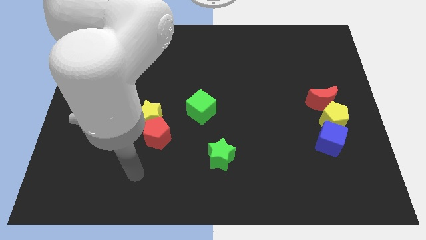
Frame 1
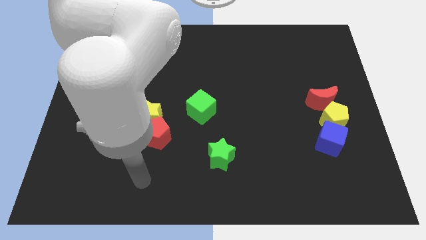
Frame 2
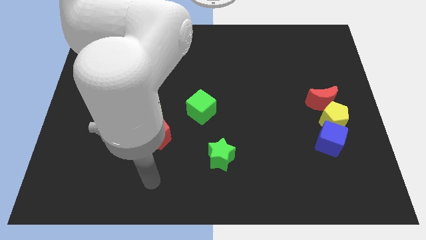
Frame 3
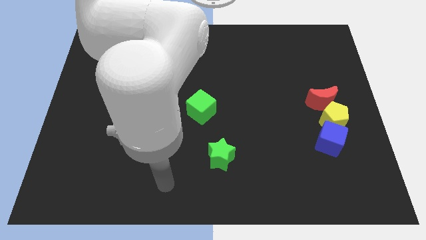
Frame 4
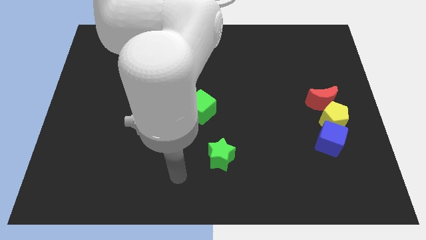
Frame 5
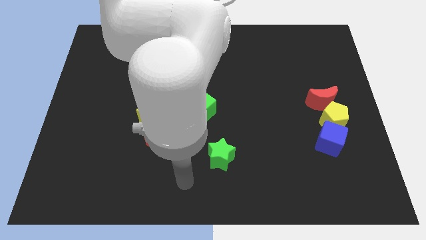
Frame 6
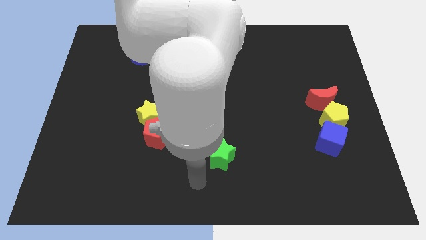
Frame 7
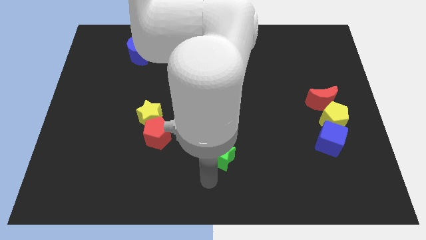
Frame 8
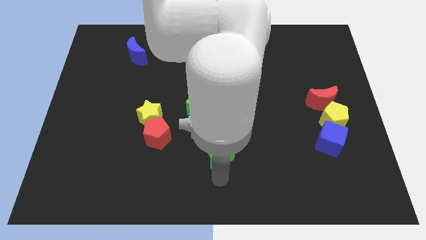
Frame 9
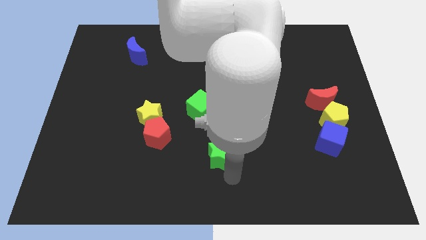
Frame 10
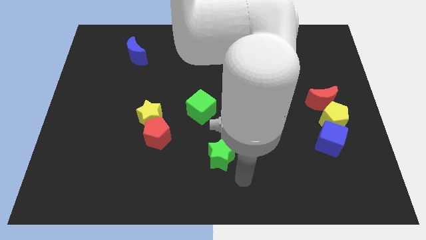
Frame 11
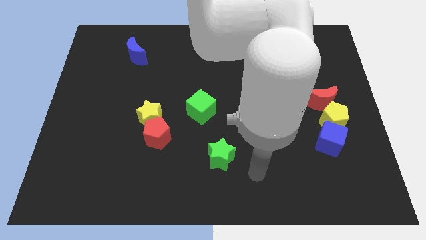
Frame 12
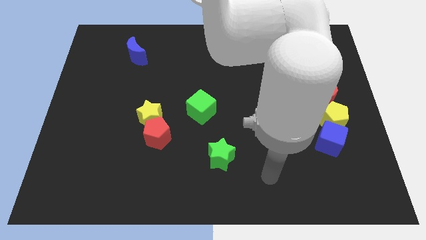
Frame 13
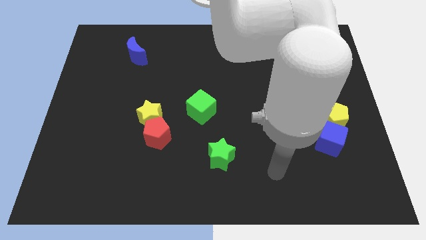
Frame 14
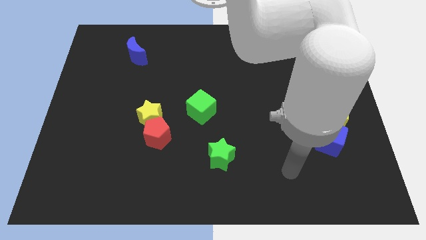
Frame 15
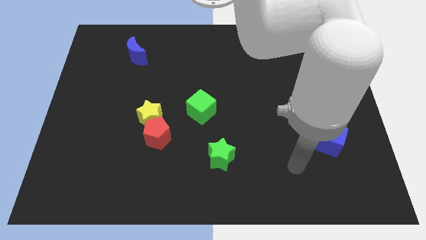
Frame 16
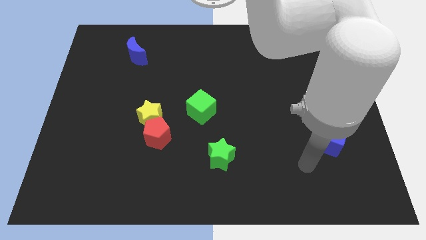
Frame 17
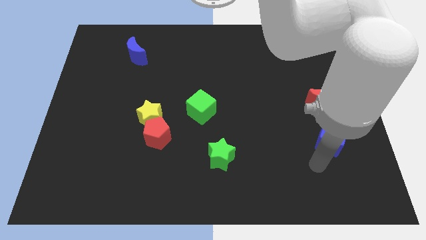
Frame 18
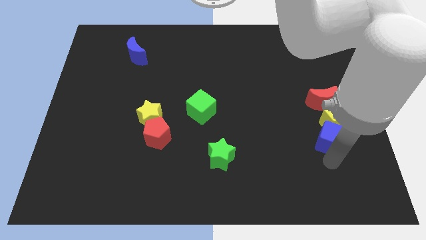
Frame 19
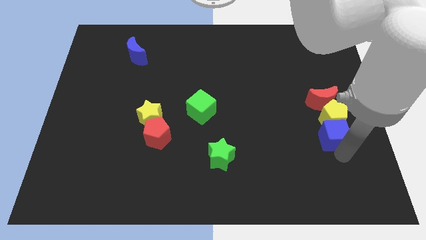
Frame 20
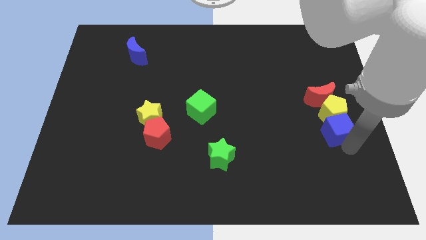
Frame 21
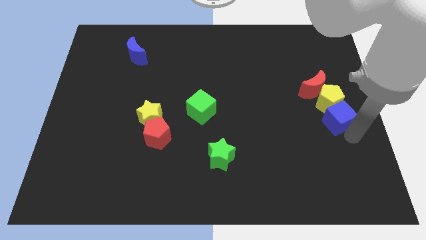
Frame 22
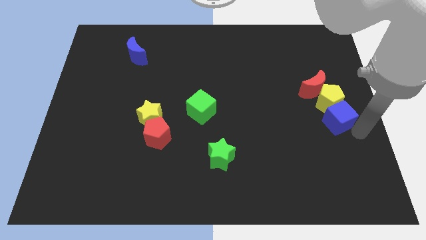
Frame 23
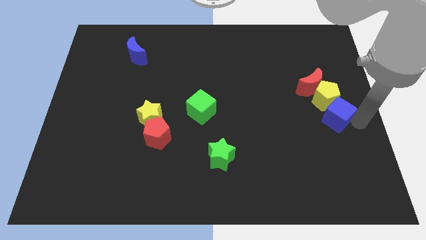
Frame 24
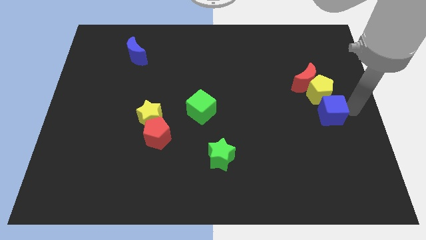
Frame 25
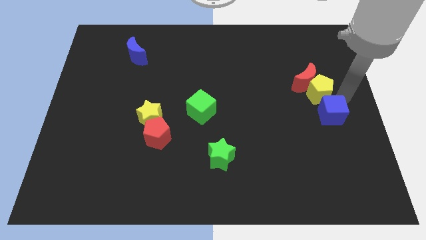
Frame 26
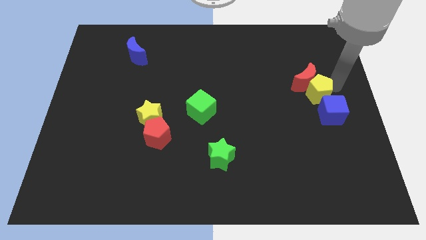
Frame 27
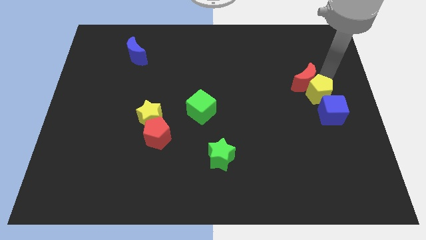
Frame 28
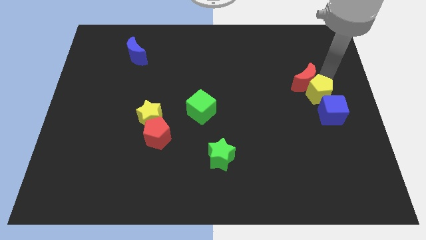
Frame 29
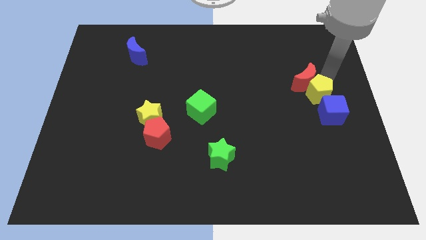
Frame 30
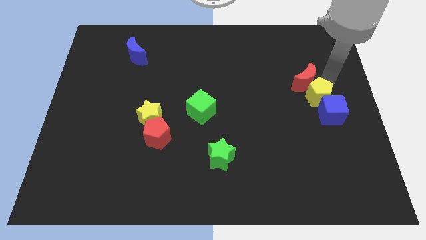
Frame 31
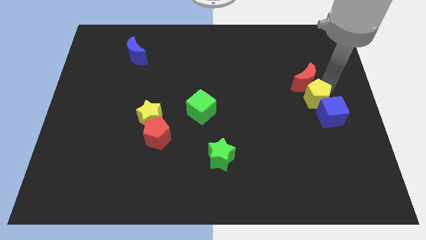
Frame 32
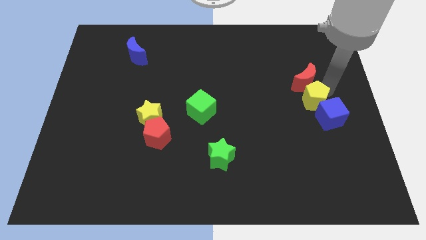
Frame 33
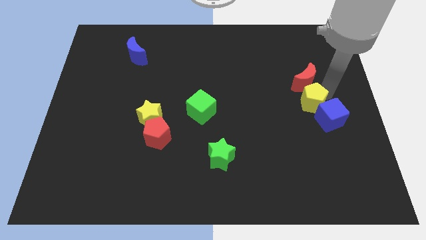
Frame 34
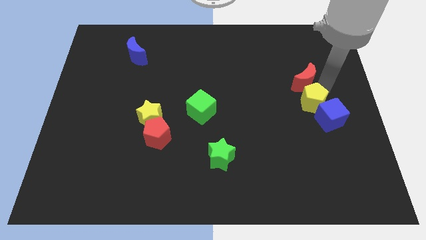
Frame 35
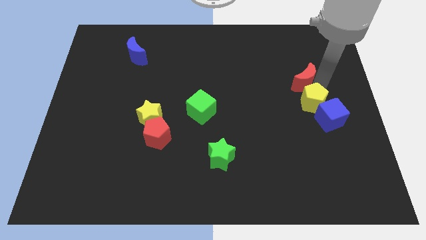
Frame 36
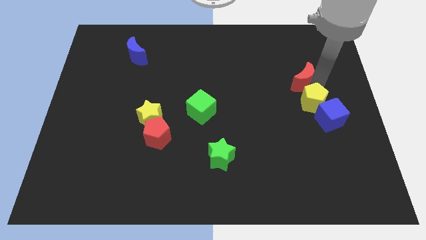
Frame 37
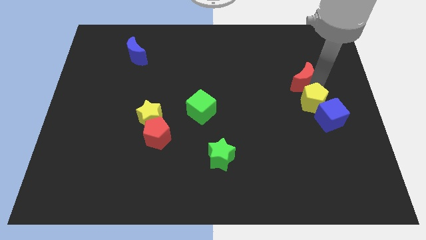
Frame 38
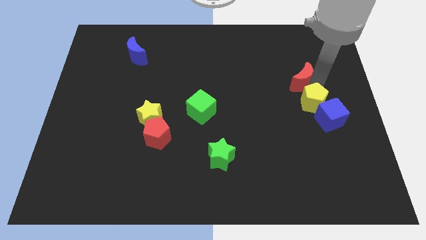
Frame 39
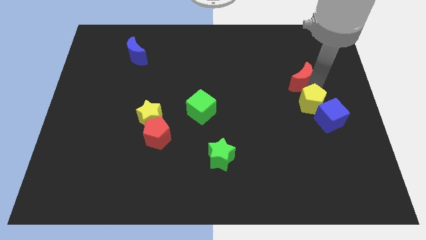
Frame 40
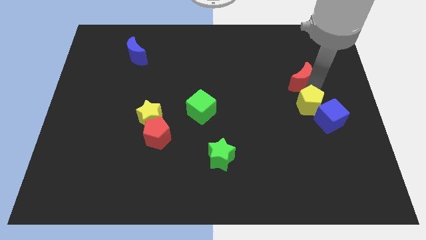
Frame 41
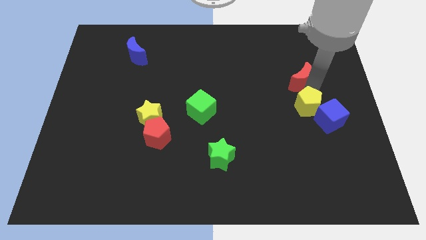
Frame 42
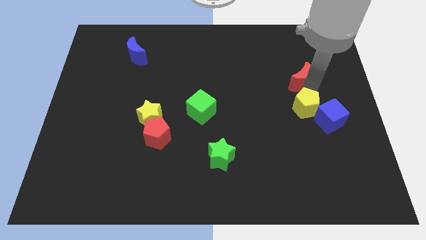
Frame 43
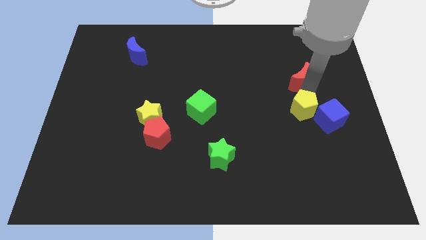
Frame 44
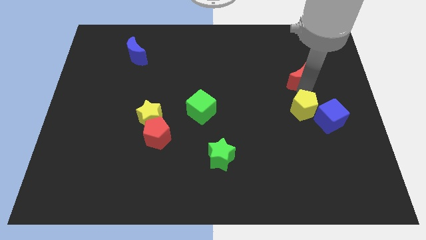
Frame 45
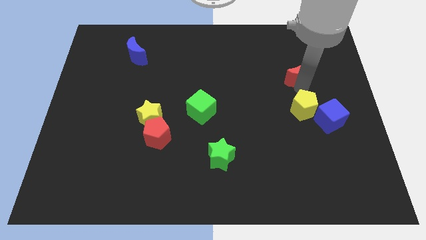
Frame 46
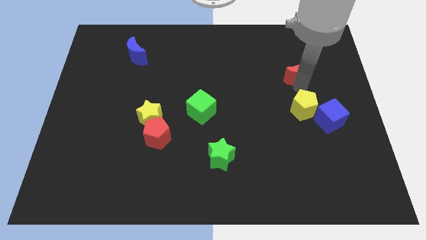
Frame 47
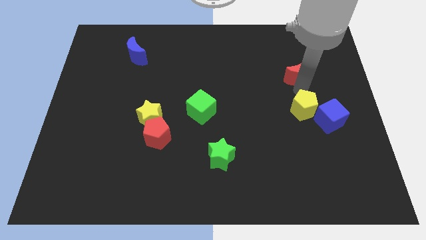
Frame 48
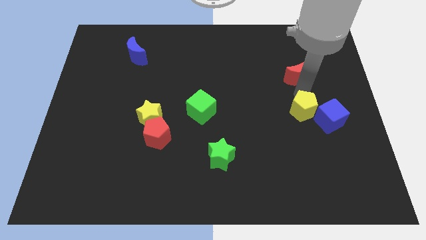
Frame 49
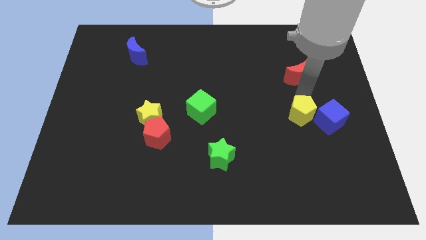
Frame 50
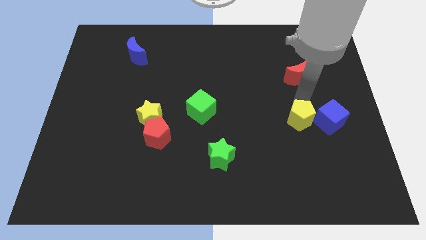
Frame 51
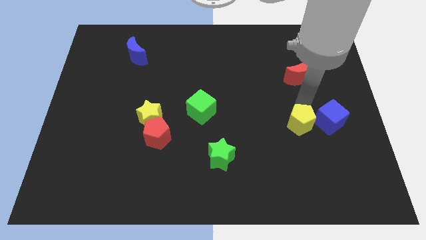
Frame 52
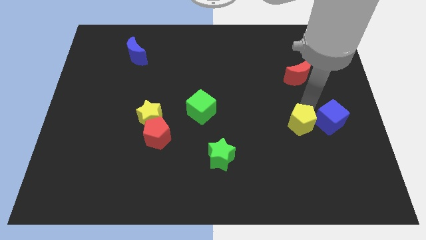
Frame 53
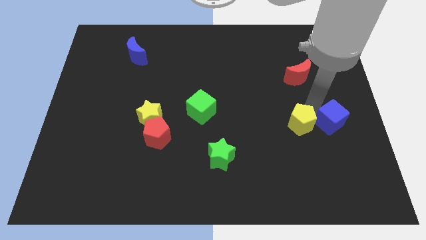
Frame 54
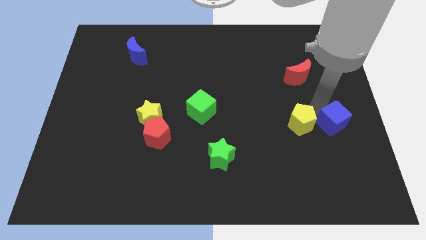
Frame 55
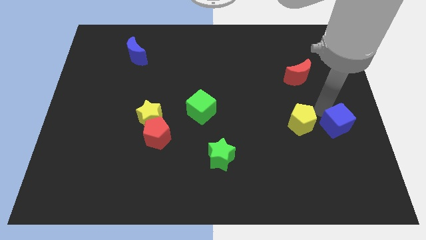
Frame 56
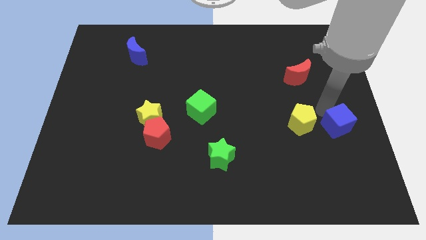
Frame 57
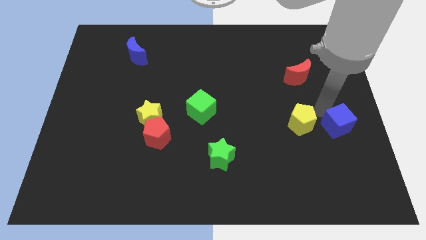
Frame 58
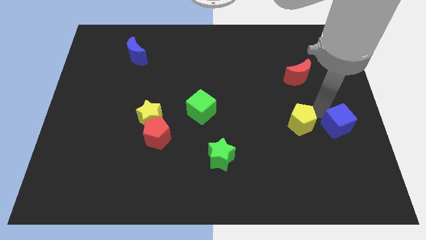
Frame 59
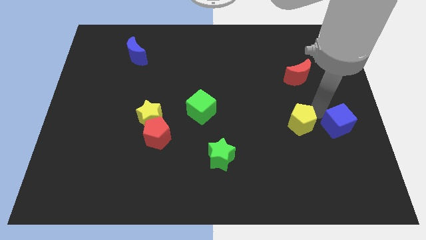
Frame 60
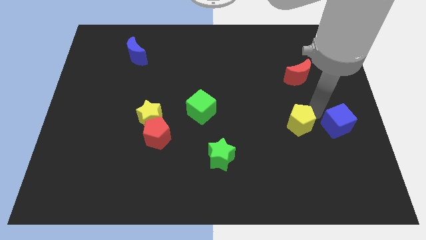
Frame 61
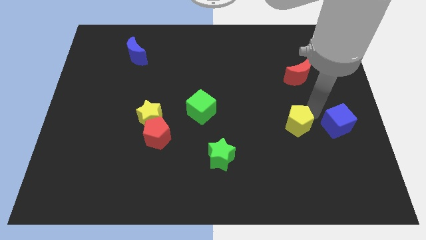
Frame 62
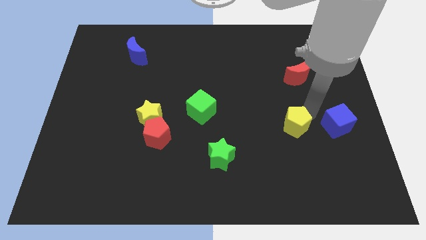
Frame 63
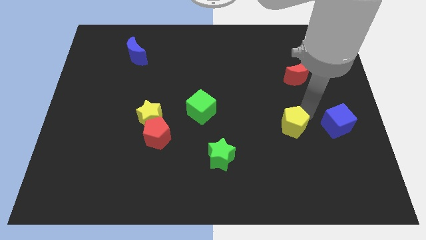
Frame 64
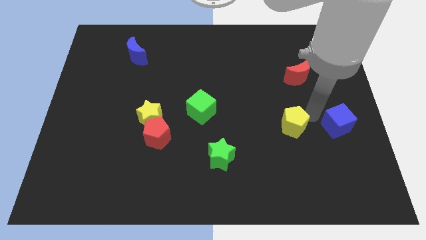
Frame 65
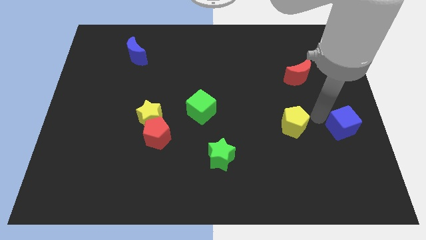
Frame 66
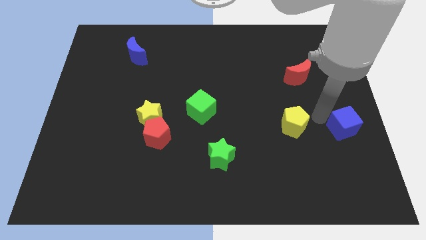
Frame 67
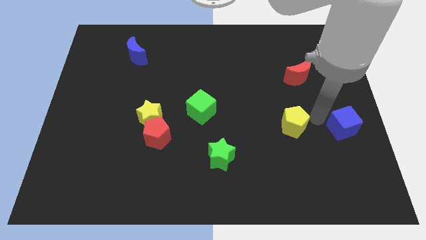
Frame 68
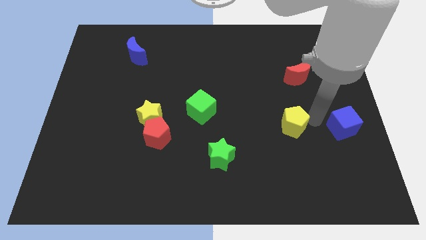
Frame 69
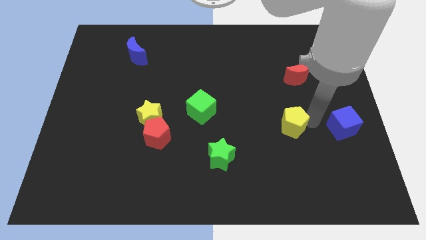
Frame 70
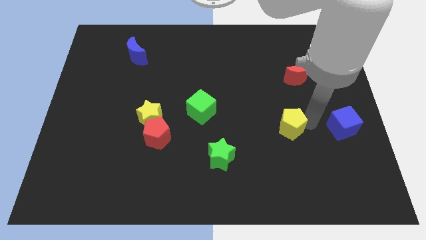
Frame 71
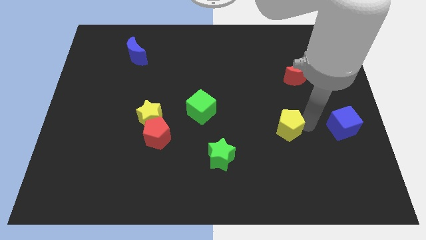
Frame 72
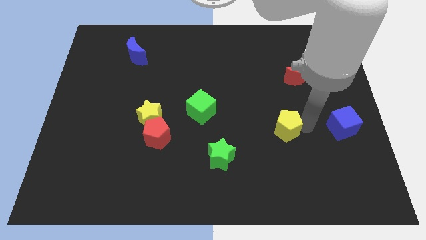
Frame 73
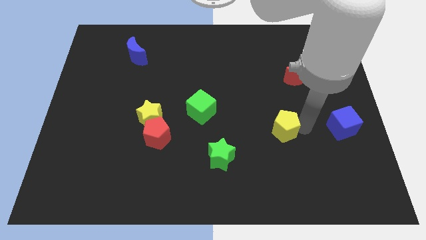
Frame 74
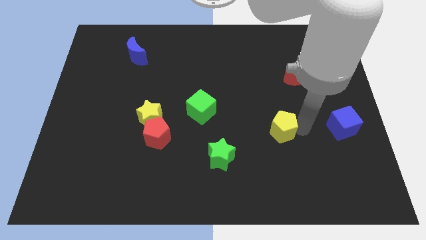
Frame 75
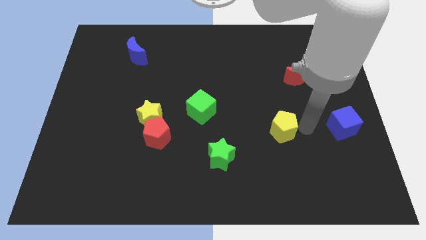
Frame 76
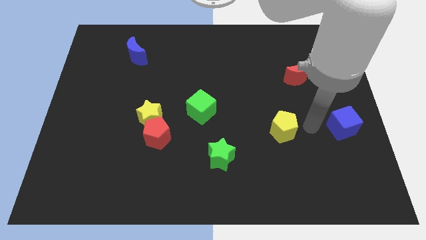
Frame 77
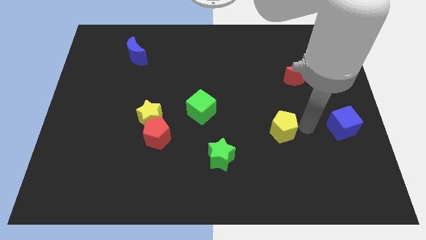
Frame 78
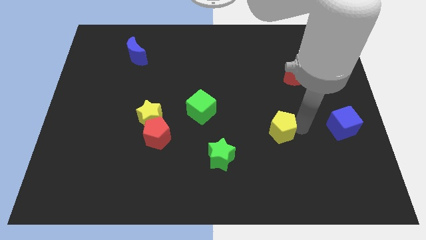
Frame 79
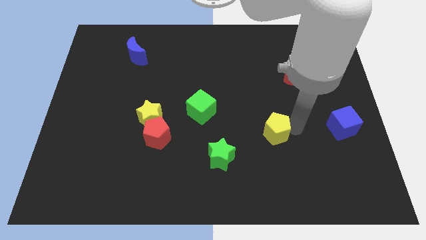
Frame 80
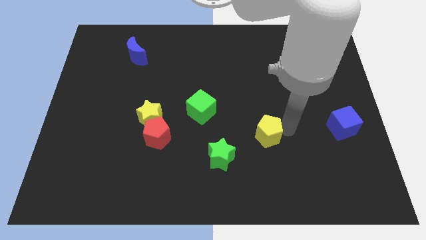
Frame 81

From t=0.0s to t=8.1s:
slide the yellow pentagon to the top right of the green star
